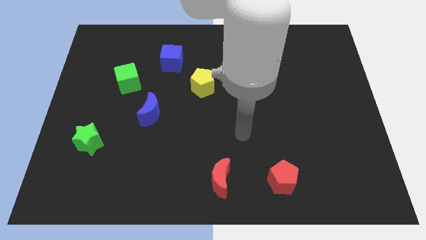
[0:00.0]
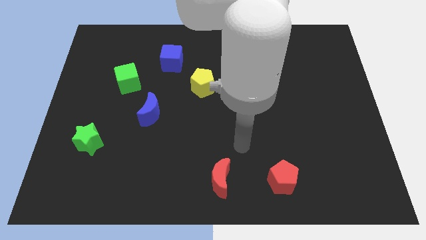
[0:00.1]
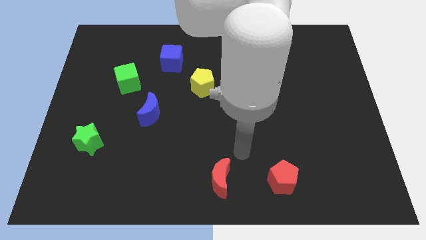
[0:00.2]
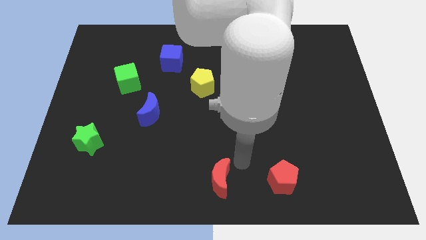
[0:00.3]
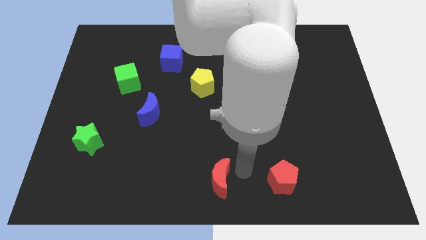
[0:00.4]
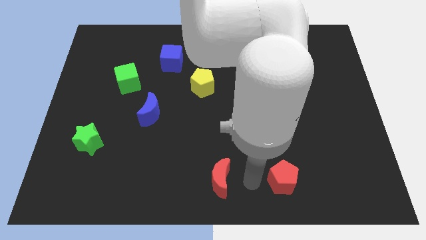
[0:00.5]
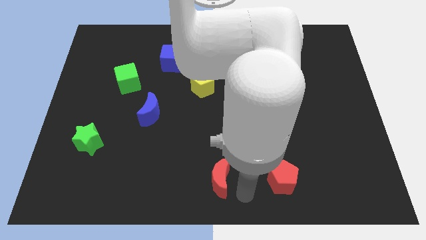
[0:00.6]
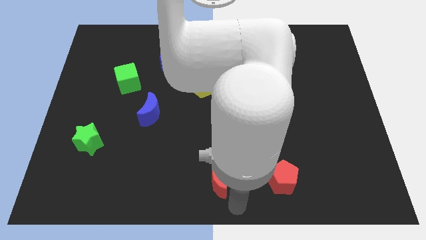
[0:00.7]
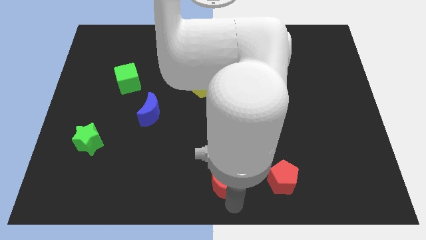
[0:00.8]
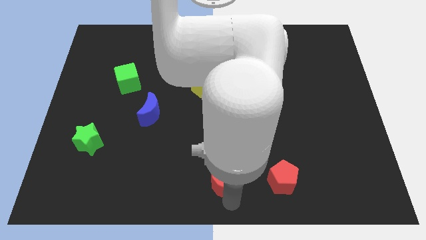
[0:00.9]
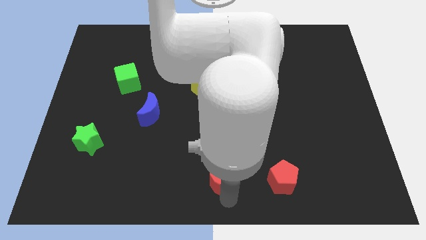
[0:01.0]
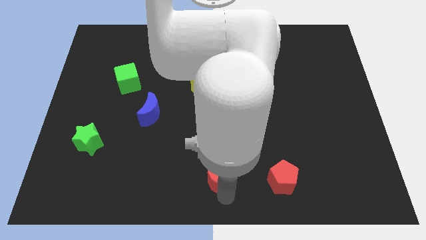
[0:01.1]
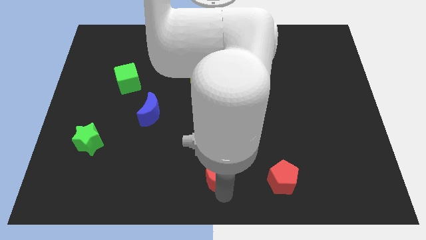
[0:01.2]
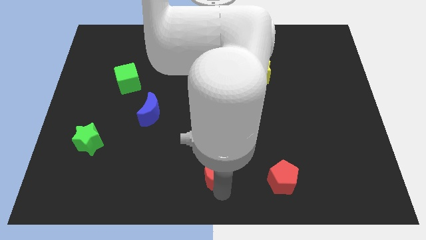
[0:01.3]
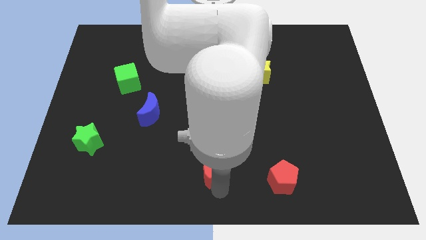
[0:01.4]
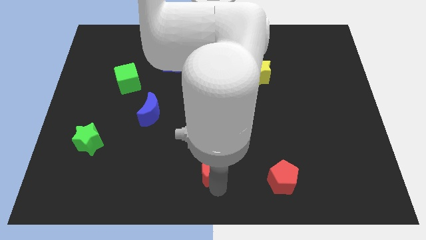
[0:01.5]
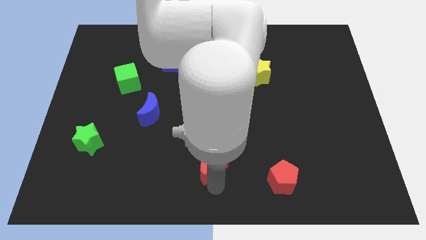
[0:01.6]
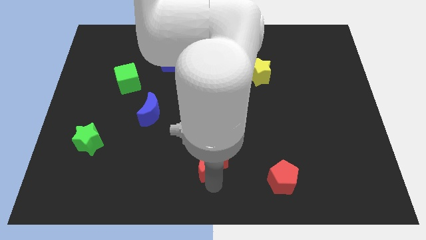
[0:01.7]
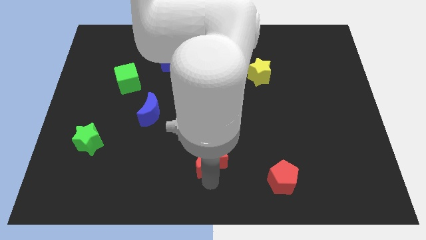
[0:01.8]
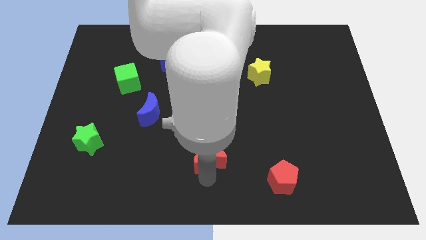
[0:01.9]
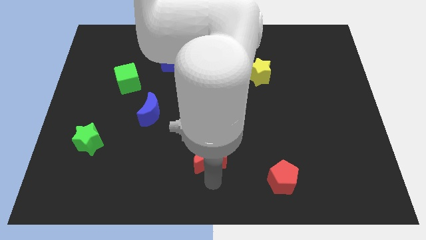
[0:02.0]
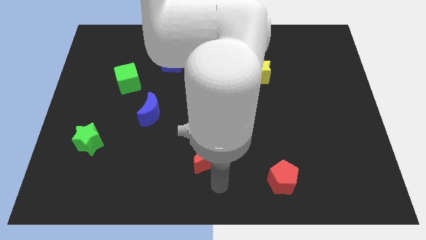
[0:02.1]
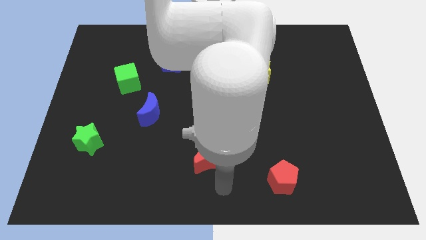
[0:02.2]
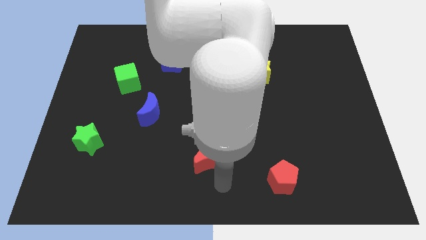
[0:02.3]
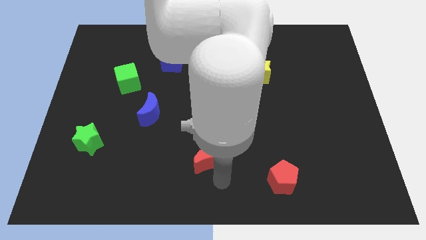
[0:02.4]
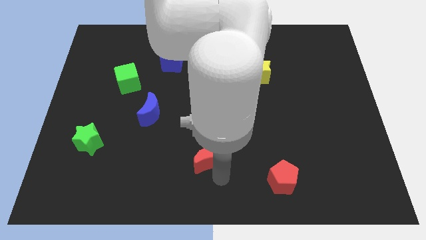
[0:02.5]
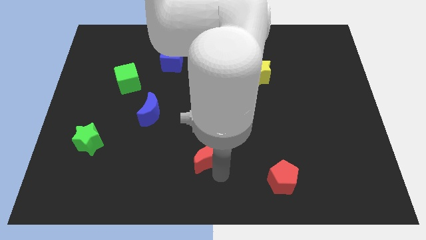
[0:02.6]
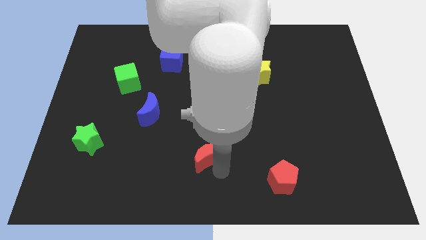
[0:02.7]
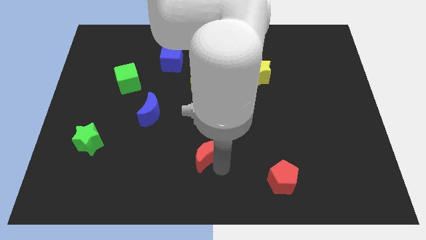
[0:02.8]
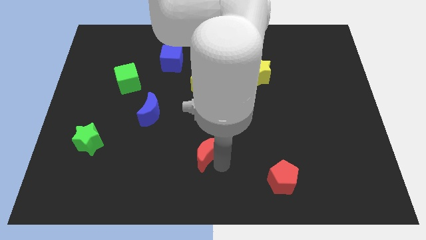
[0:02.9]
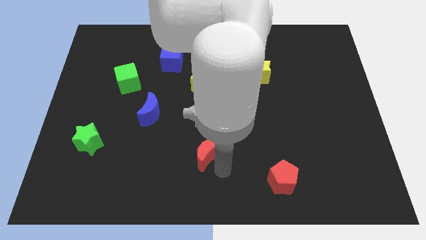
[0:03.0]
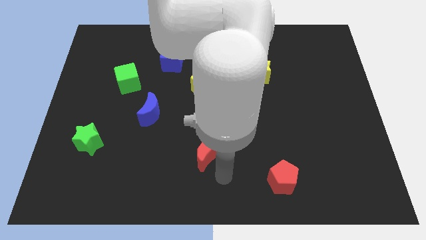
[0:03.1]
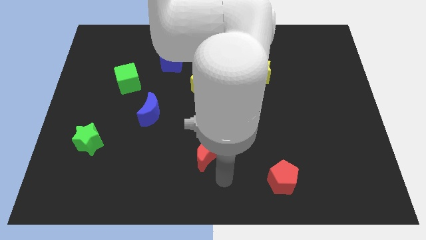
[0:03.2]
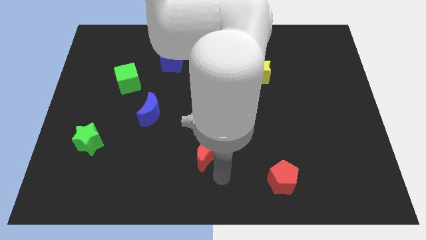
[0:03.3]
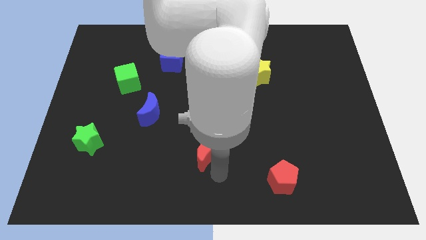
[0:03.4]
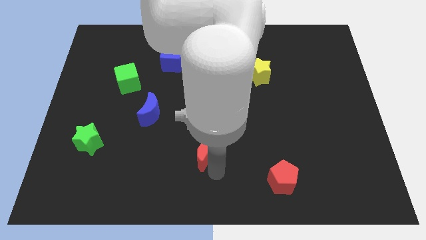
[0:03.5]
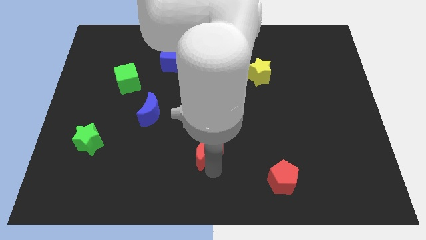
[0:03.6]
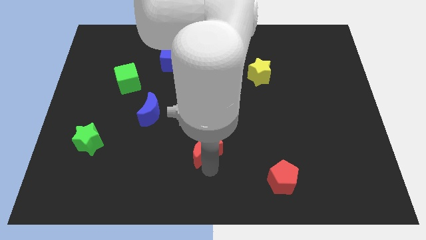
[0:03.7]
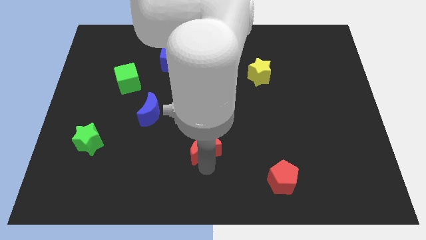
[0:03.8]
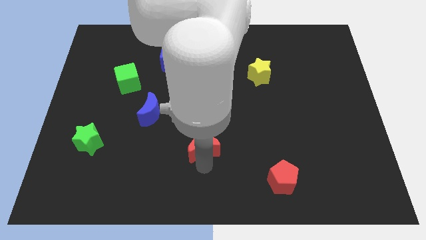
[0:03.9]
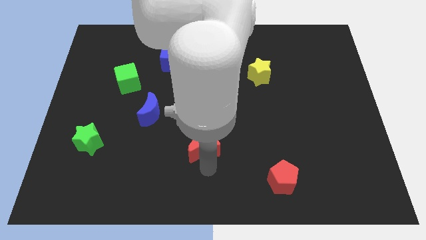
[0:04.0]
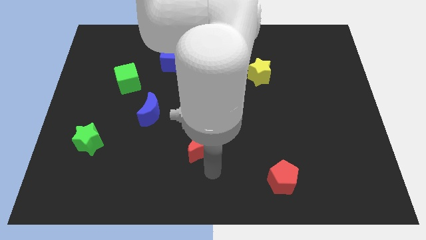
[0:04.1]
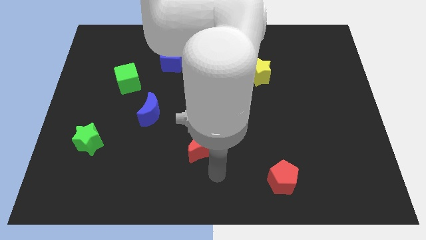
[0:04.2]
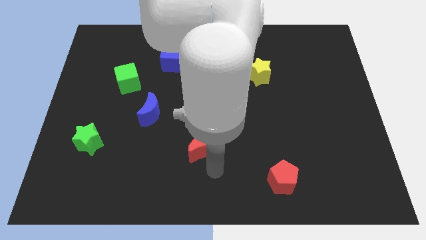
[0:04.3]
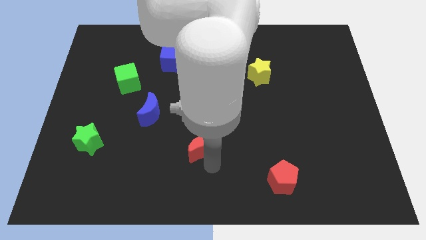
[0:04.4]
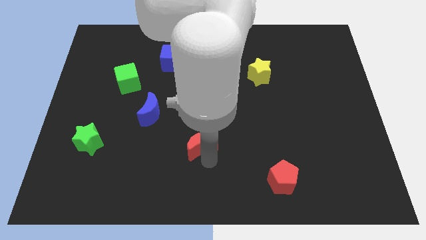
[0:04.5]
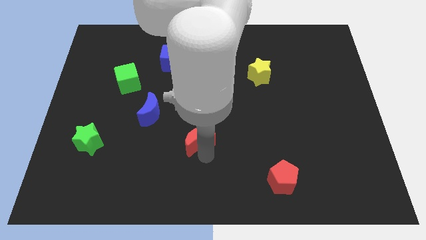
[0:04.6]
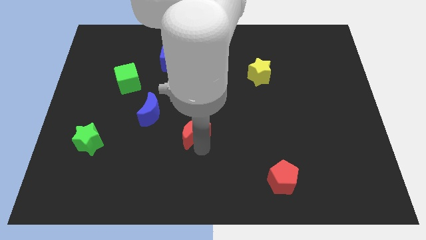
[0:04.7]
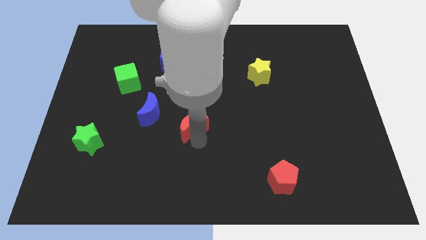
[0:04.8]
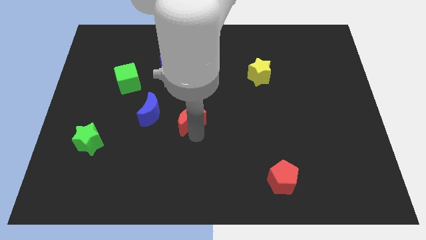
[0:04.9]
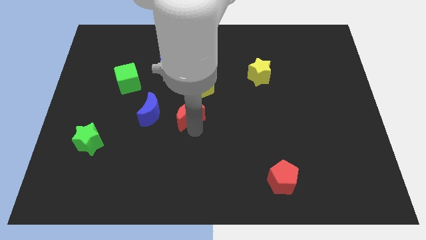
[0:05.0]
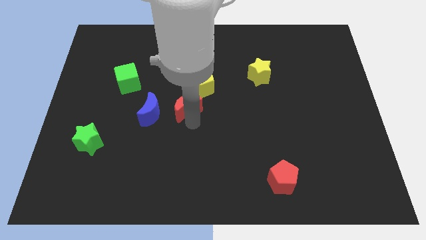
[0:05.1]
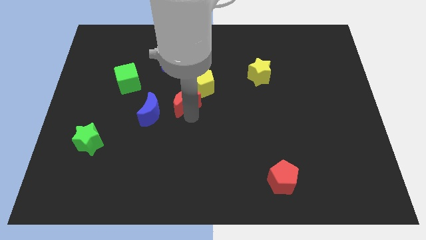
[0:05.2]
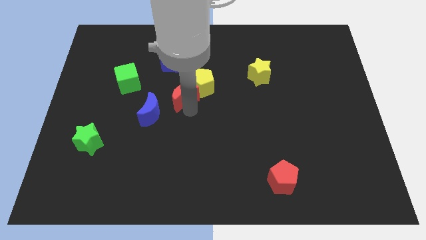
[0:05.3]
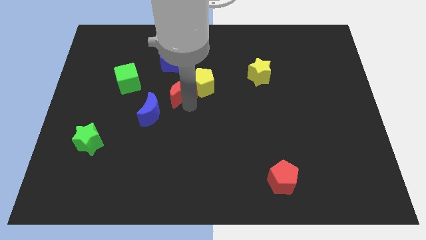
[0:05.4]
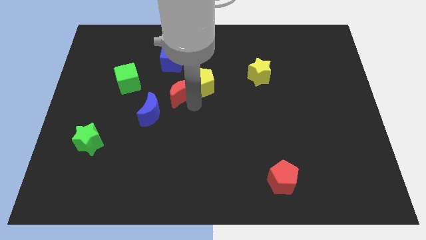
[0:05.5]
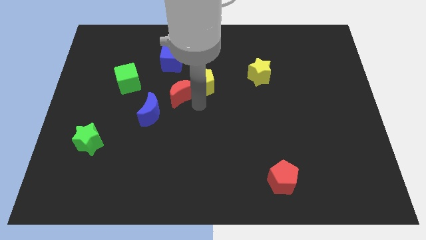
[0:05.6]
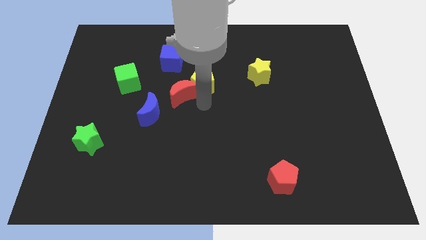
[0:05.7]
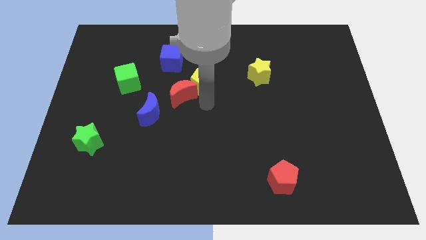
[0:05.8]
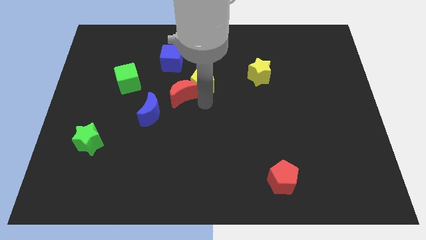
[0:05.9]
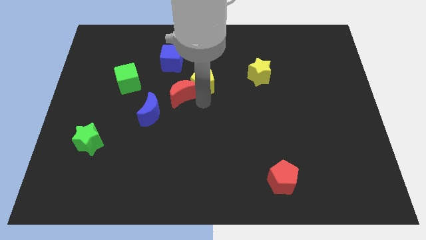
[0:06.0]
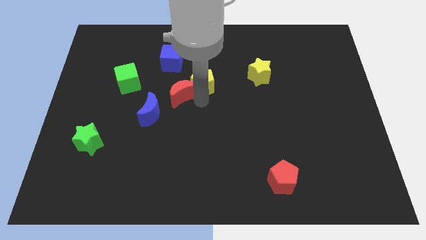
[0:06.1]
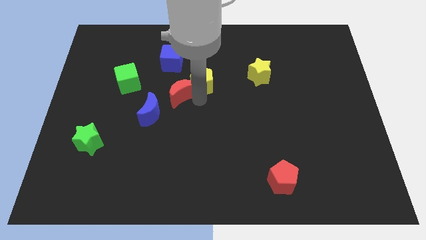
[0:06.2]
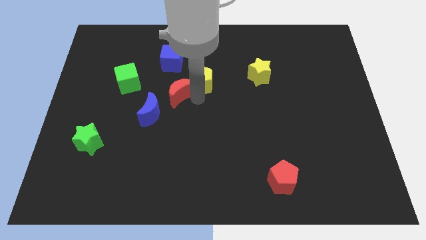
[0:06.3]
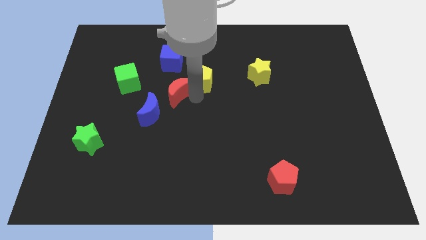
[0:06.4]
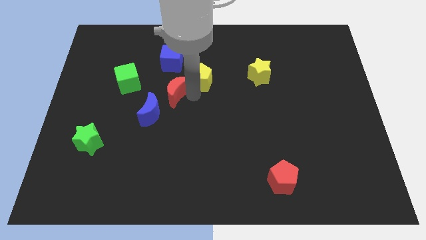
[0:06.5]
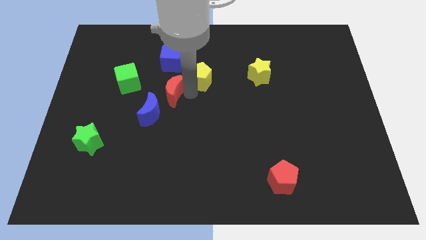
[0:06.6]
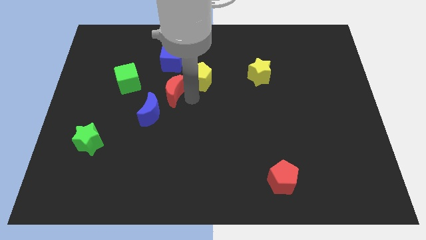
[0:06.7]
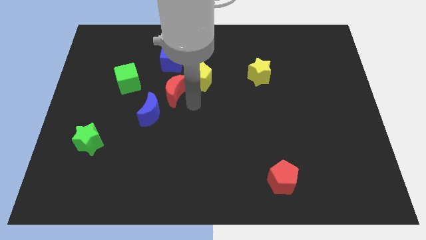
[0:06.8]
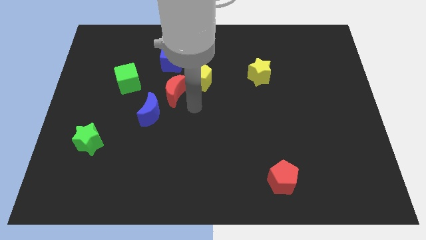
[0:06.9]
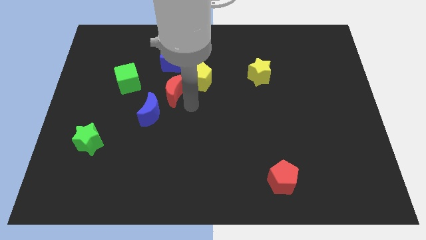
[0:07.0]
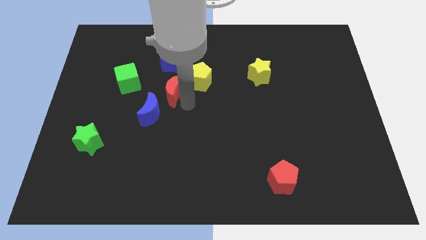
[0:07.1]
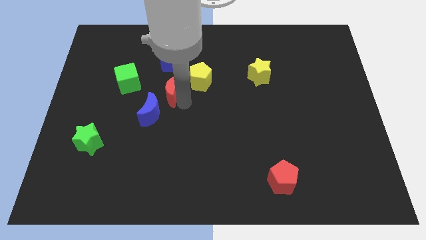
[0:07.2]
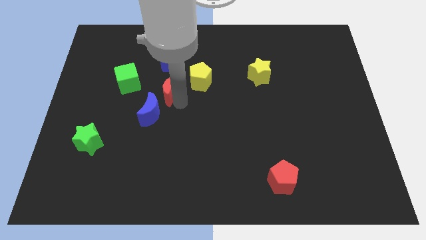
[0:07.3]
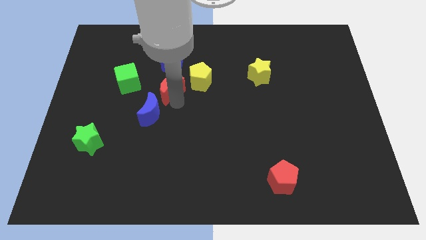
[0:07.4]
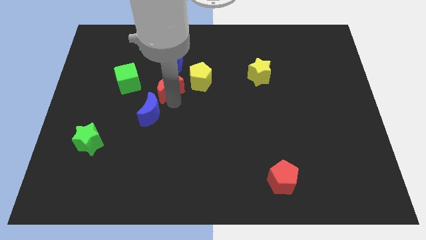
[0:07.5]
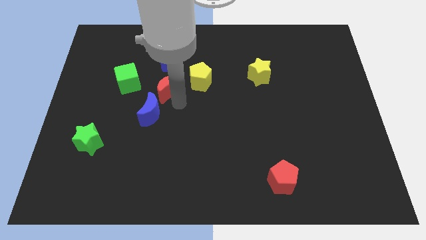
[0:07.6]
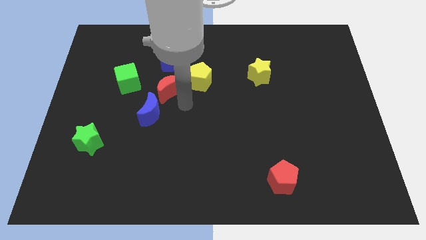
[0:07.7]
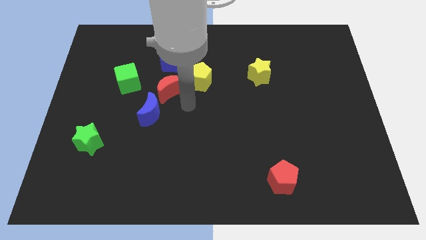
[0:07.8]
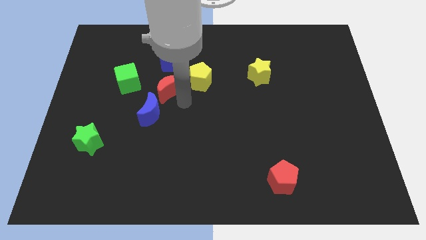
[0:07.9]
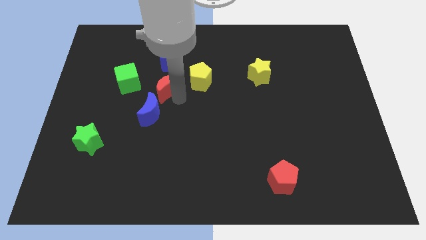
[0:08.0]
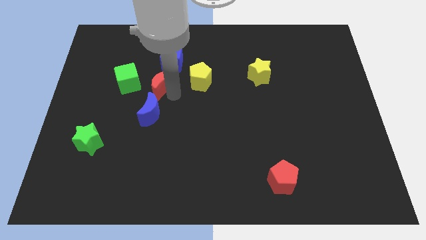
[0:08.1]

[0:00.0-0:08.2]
push the red moon diagonally down and to the left of the blue cube
